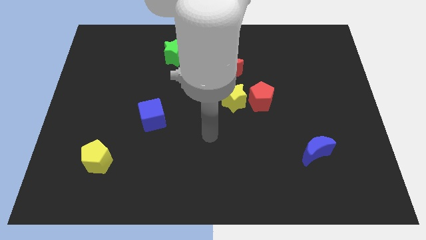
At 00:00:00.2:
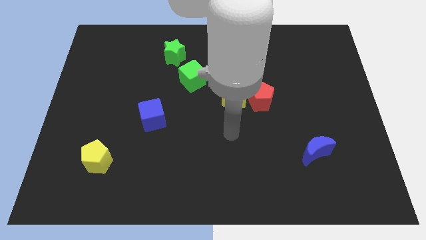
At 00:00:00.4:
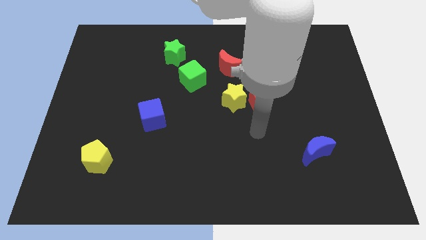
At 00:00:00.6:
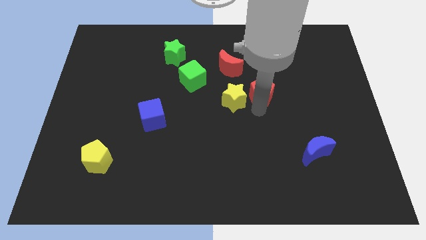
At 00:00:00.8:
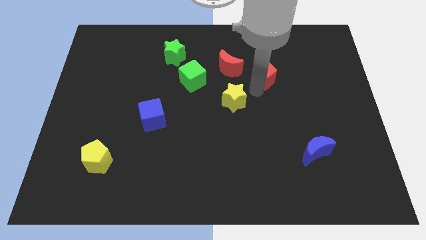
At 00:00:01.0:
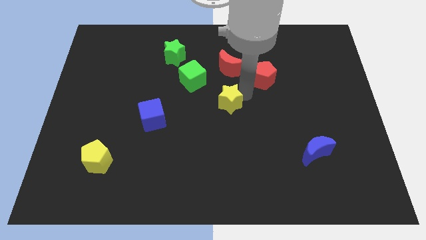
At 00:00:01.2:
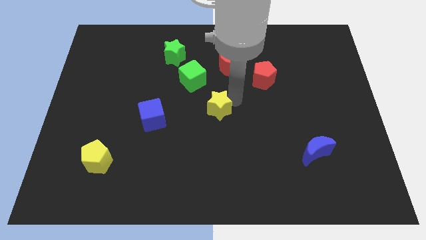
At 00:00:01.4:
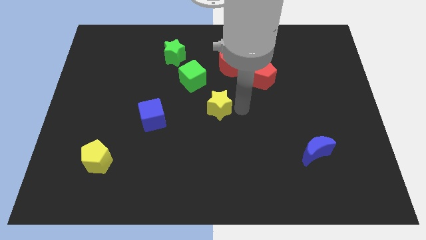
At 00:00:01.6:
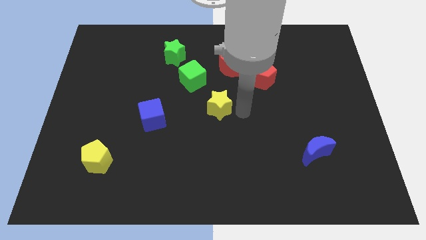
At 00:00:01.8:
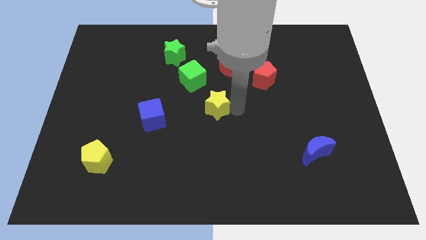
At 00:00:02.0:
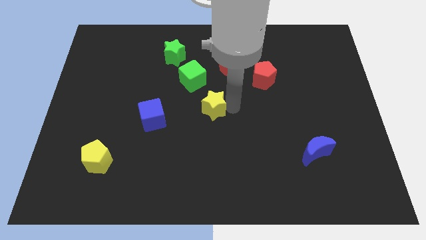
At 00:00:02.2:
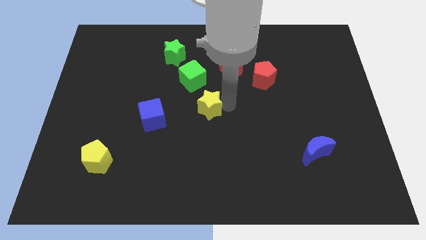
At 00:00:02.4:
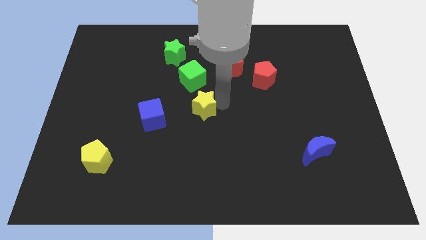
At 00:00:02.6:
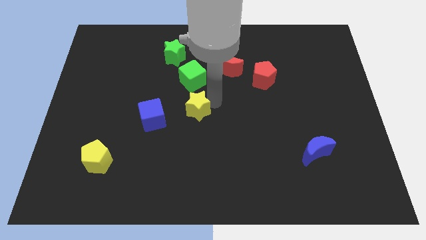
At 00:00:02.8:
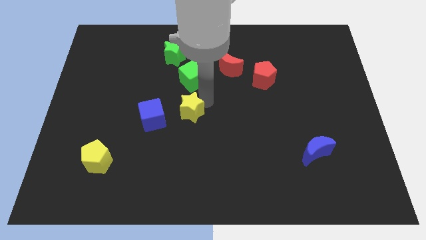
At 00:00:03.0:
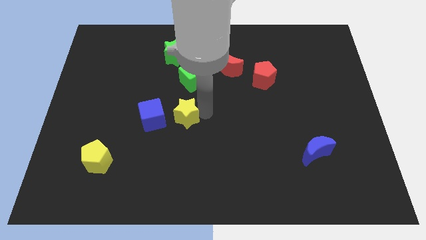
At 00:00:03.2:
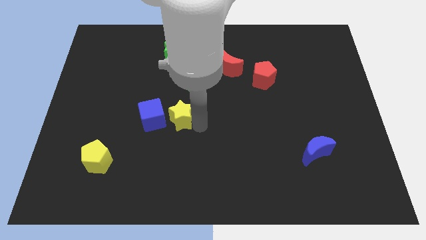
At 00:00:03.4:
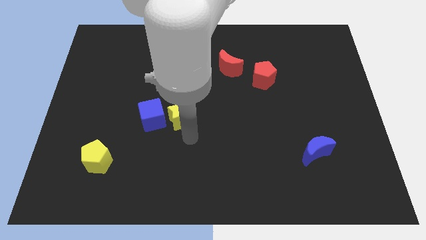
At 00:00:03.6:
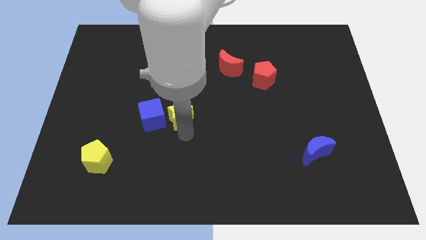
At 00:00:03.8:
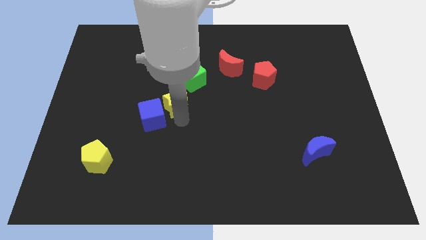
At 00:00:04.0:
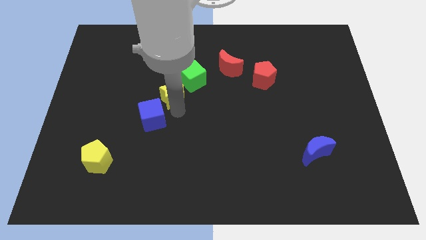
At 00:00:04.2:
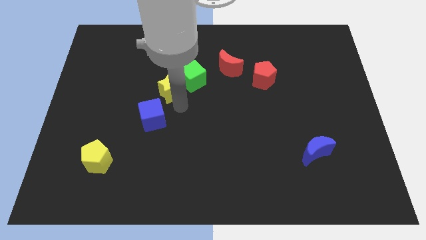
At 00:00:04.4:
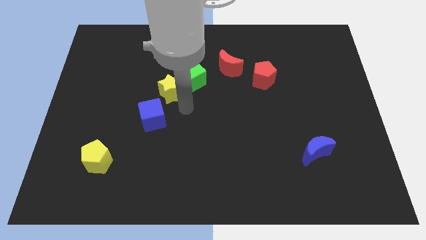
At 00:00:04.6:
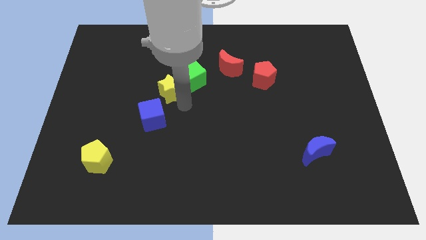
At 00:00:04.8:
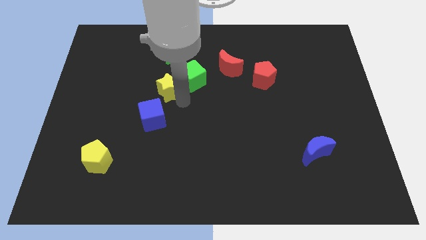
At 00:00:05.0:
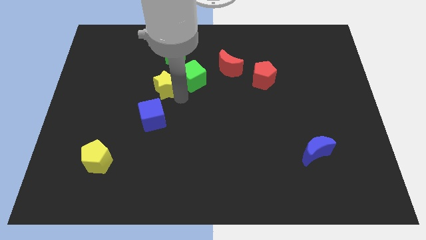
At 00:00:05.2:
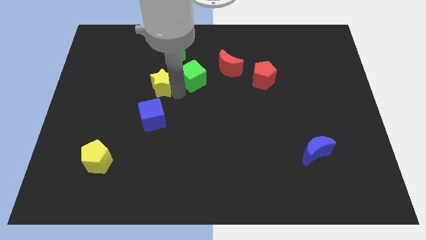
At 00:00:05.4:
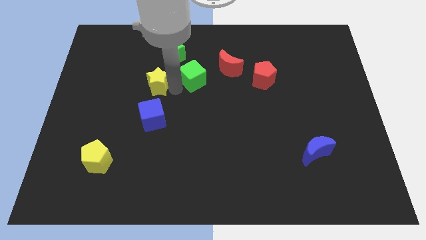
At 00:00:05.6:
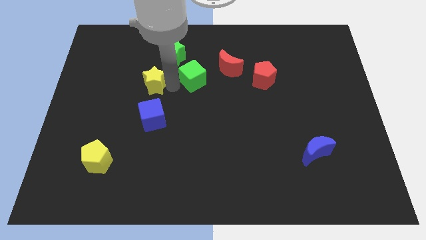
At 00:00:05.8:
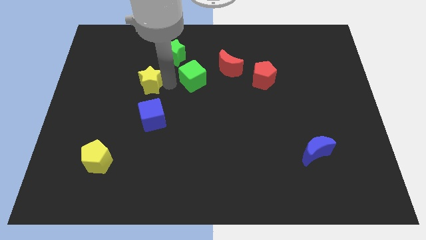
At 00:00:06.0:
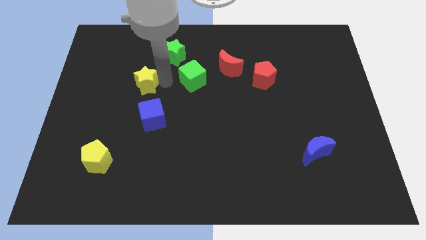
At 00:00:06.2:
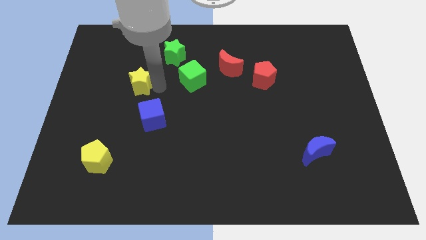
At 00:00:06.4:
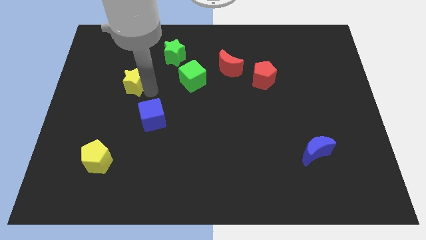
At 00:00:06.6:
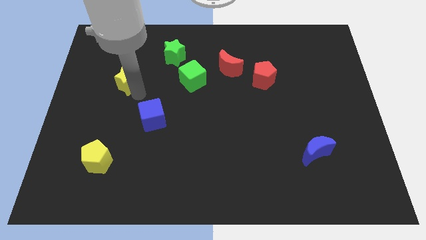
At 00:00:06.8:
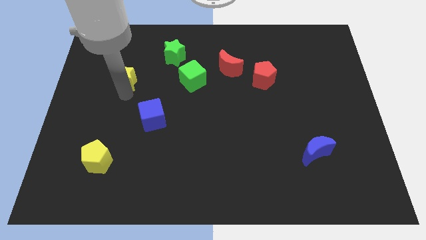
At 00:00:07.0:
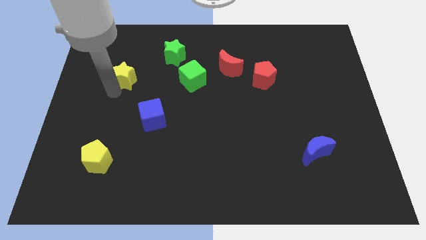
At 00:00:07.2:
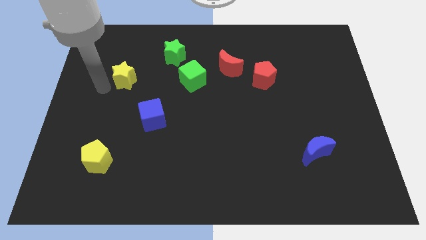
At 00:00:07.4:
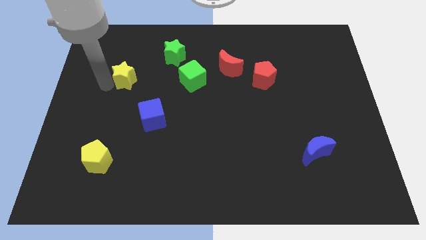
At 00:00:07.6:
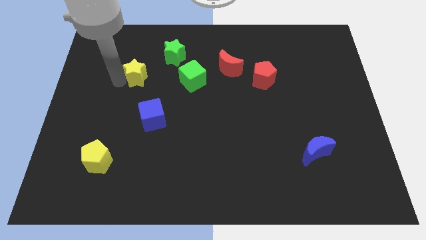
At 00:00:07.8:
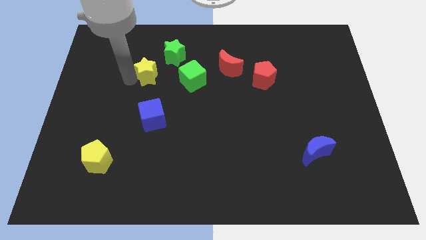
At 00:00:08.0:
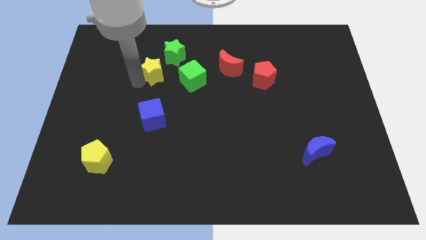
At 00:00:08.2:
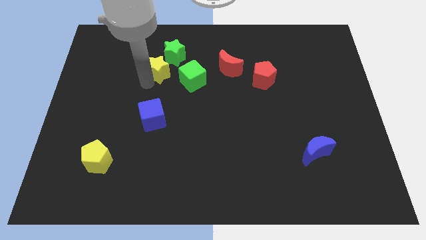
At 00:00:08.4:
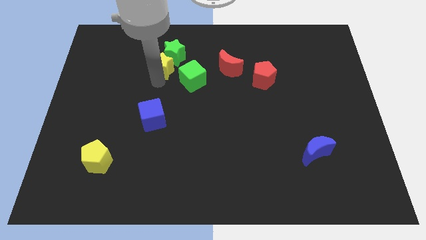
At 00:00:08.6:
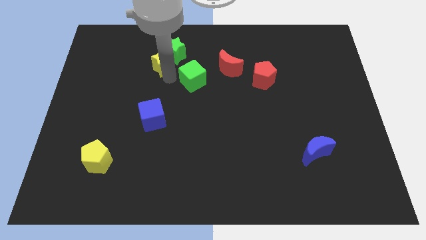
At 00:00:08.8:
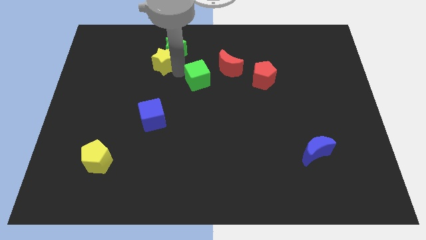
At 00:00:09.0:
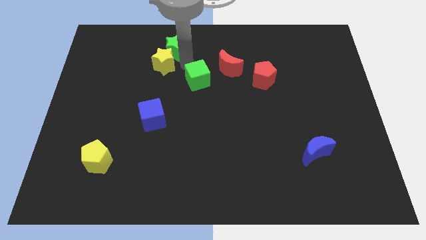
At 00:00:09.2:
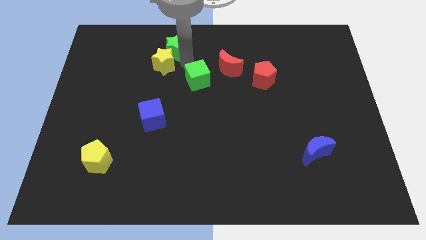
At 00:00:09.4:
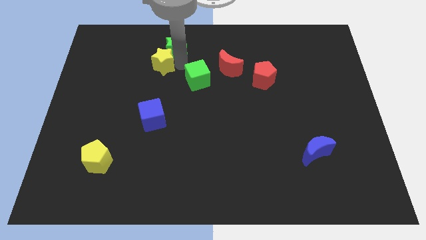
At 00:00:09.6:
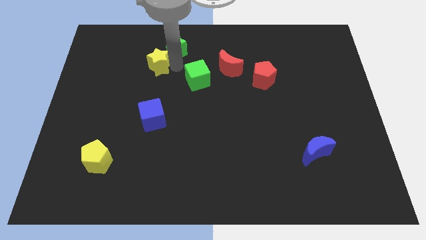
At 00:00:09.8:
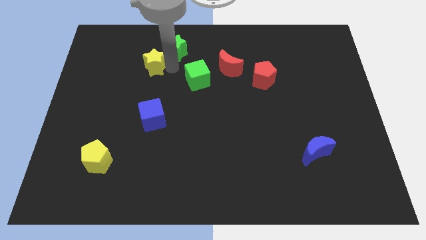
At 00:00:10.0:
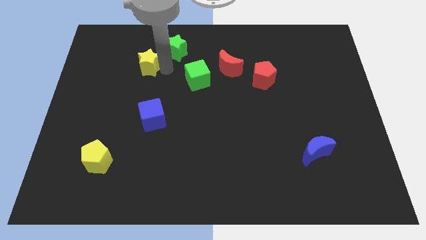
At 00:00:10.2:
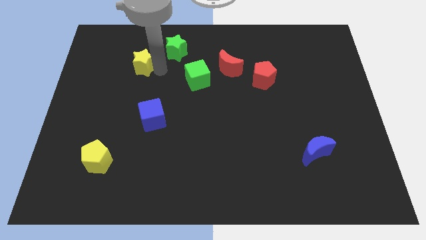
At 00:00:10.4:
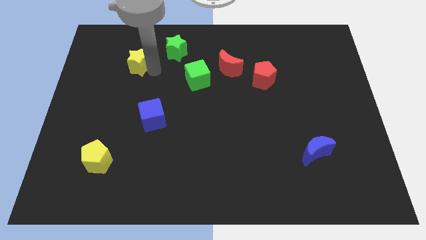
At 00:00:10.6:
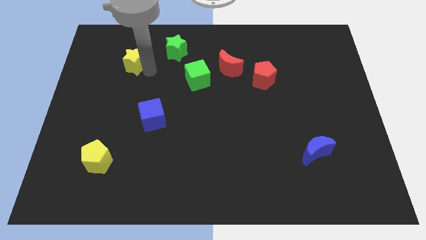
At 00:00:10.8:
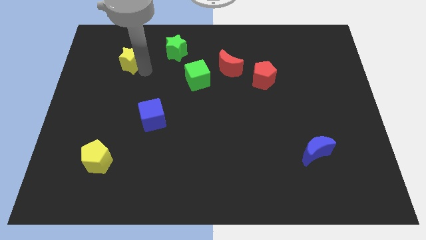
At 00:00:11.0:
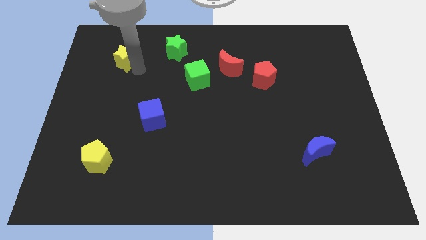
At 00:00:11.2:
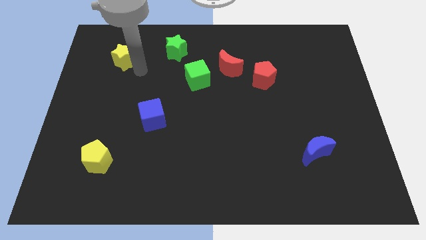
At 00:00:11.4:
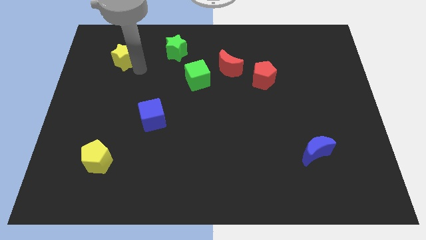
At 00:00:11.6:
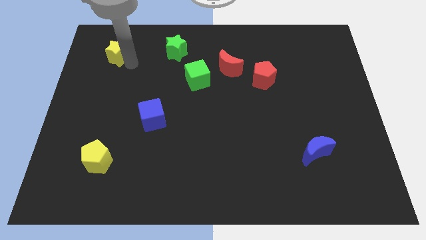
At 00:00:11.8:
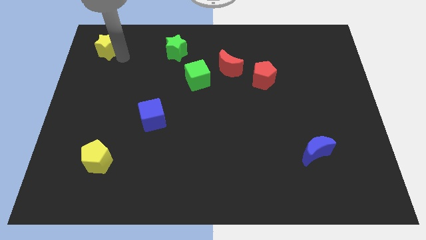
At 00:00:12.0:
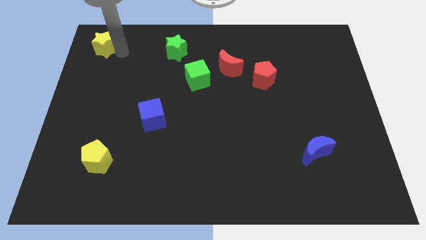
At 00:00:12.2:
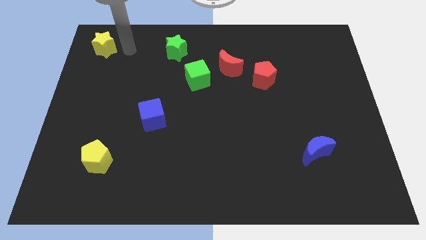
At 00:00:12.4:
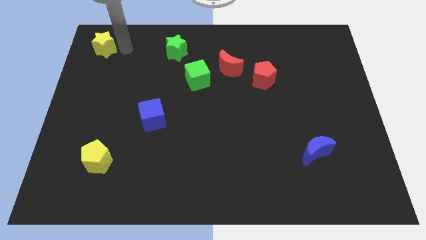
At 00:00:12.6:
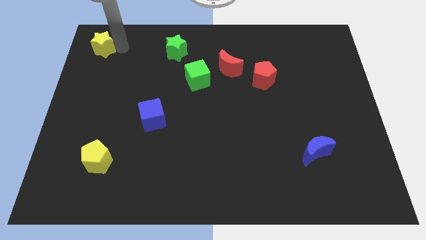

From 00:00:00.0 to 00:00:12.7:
put the yellow star to the top left corner
